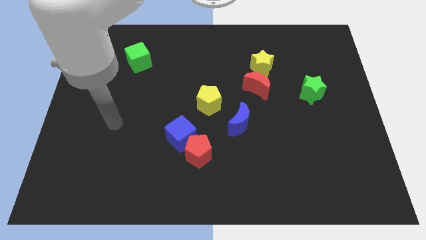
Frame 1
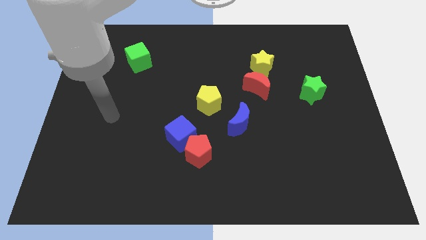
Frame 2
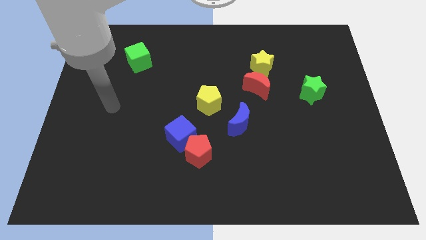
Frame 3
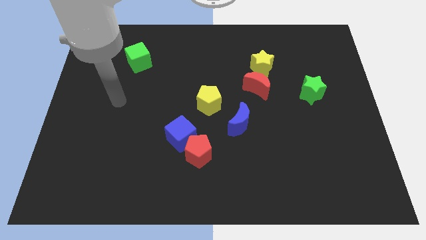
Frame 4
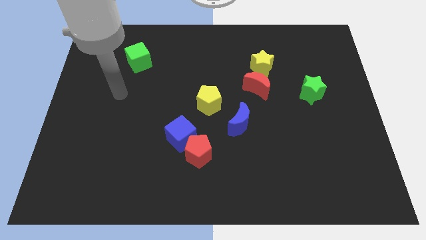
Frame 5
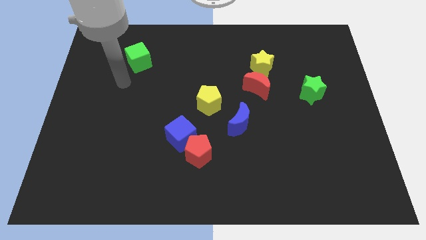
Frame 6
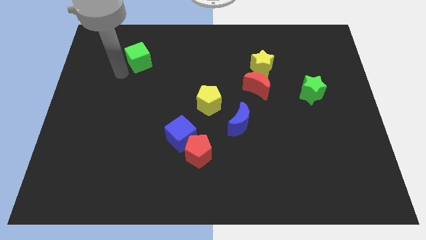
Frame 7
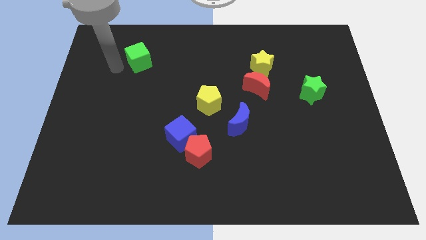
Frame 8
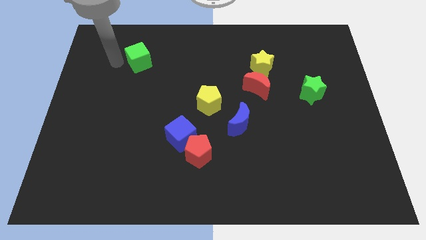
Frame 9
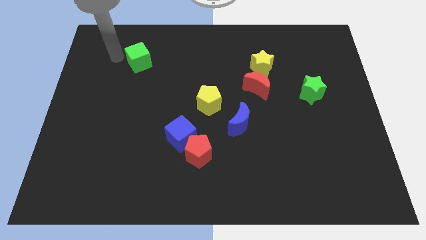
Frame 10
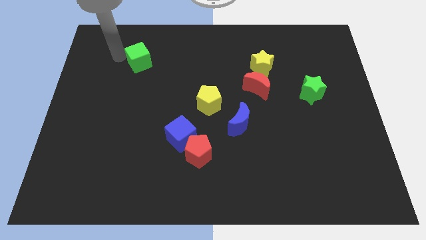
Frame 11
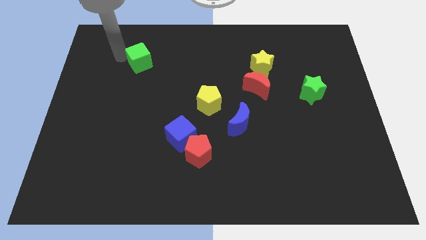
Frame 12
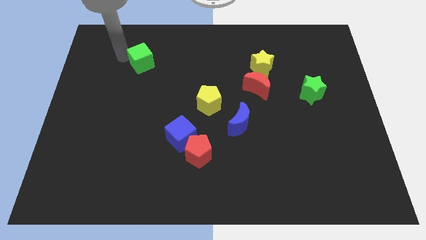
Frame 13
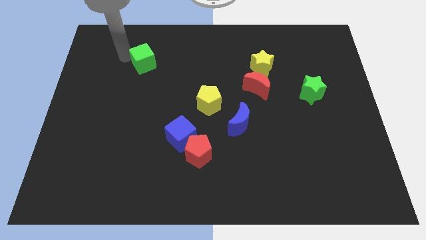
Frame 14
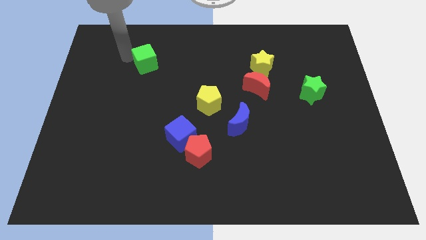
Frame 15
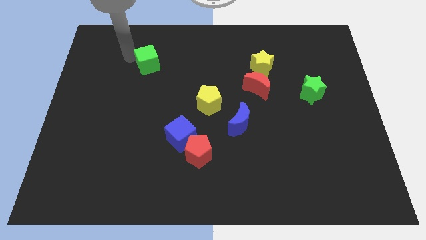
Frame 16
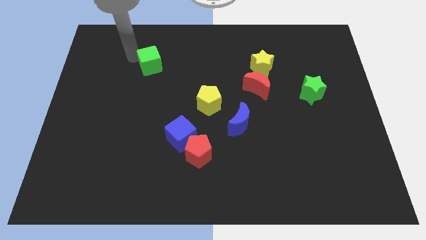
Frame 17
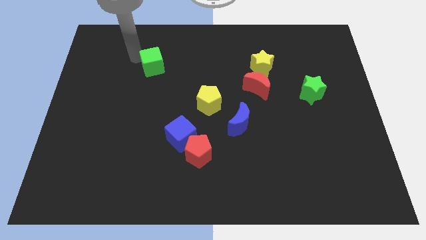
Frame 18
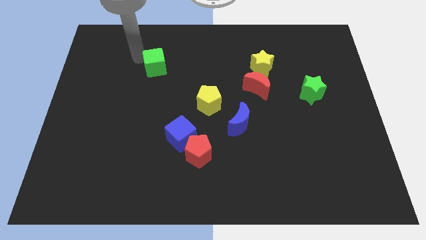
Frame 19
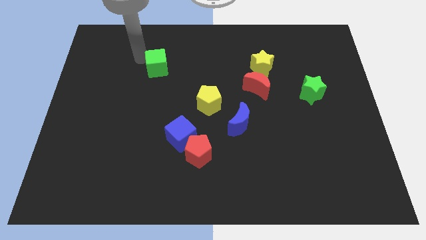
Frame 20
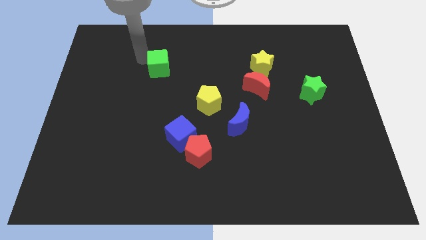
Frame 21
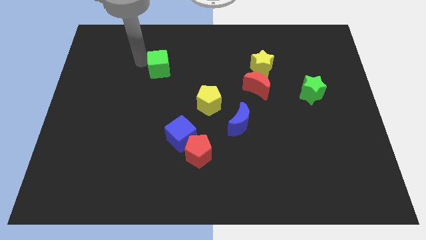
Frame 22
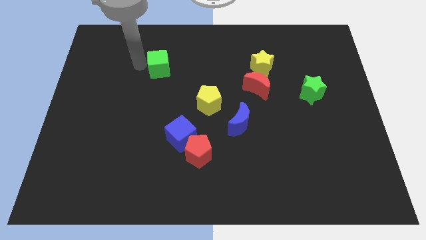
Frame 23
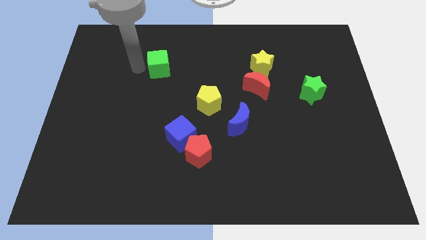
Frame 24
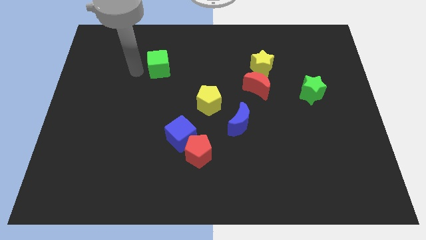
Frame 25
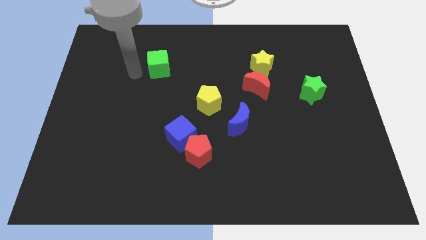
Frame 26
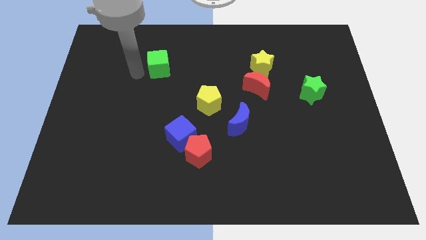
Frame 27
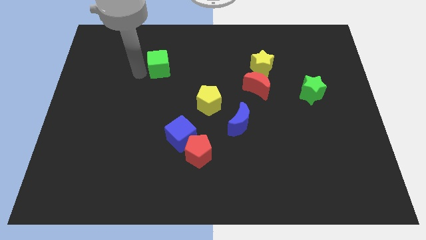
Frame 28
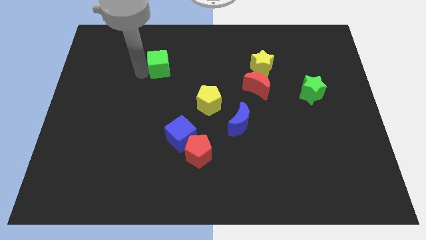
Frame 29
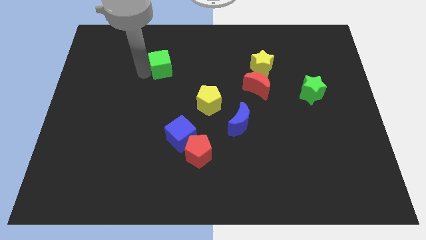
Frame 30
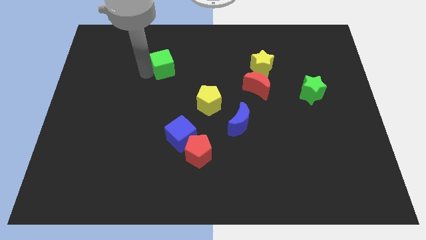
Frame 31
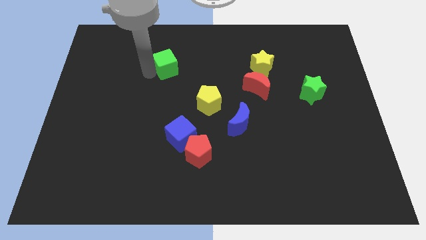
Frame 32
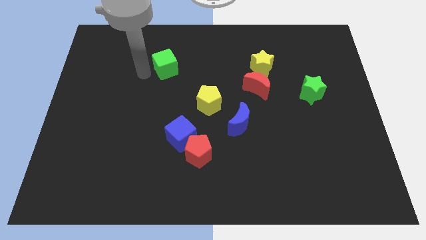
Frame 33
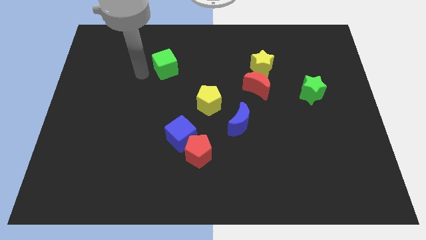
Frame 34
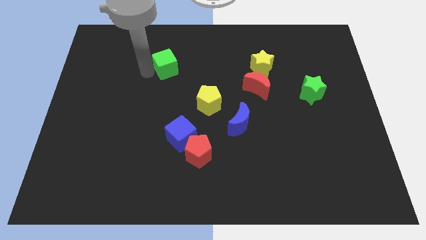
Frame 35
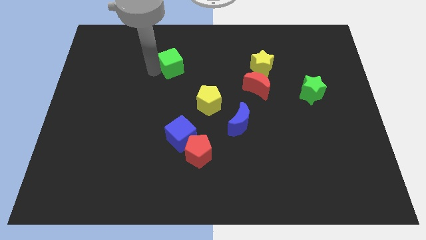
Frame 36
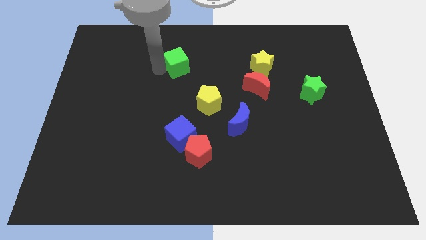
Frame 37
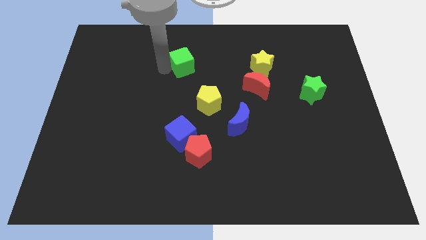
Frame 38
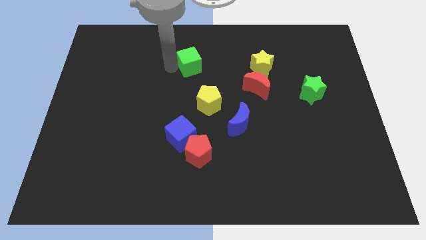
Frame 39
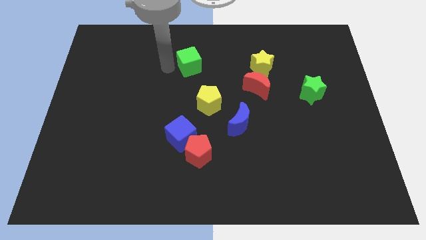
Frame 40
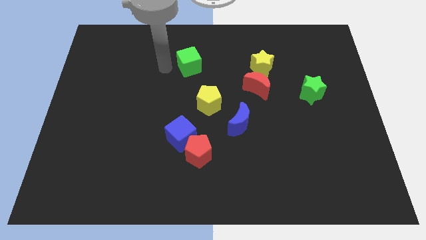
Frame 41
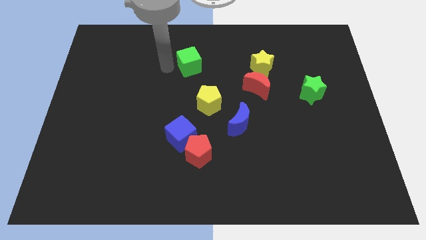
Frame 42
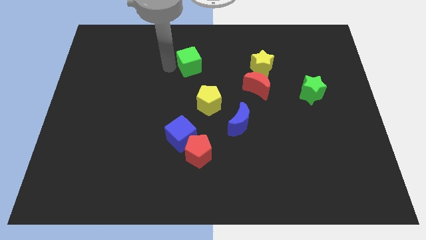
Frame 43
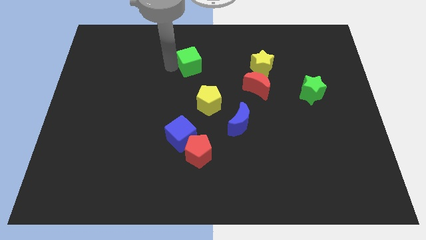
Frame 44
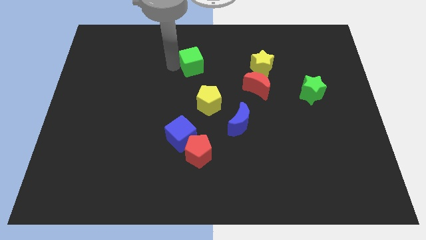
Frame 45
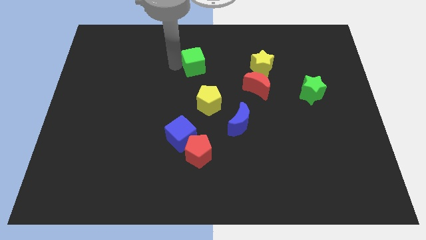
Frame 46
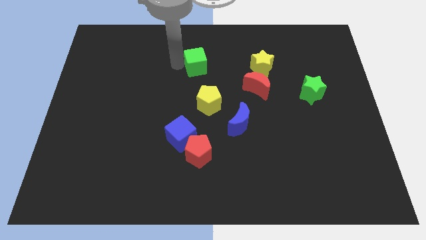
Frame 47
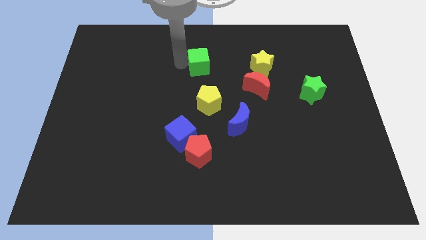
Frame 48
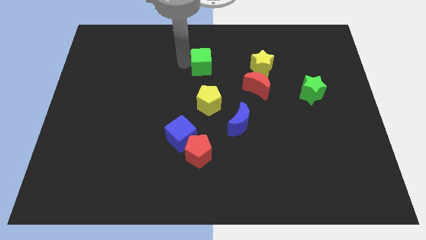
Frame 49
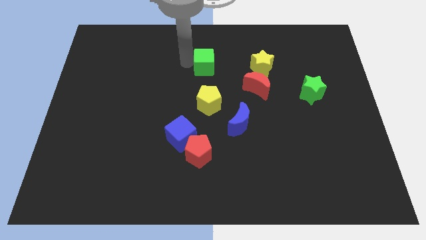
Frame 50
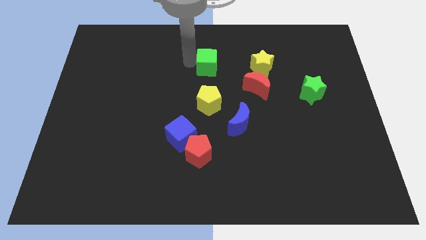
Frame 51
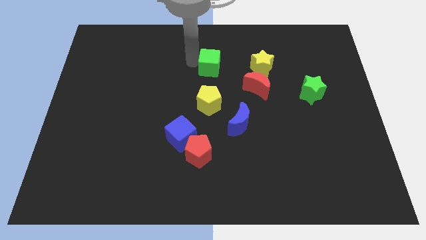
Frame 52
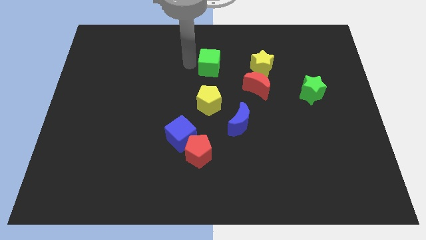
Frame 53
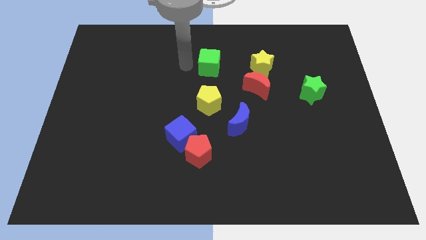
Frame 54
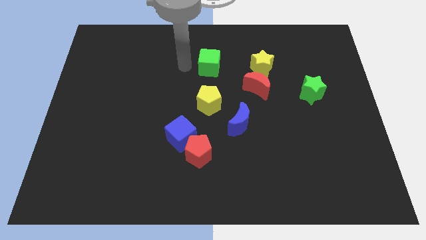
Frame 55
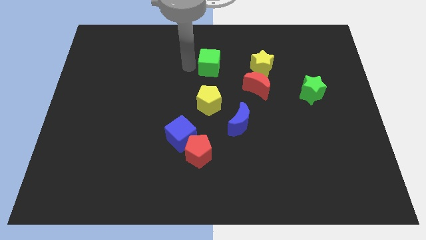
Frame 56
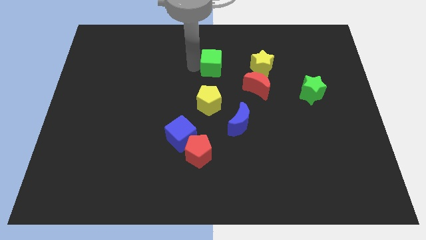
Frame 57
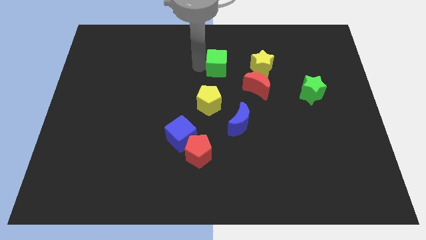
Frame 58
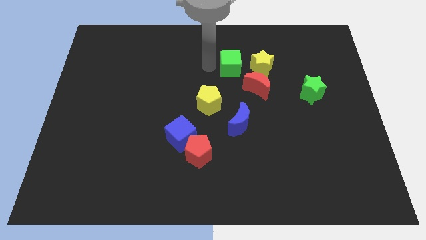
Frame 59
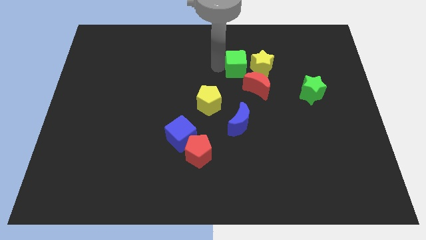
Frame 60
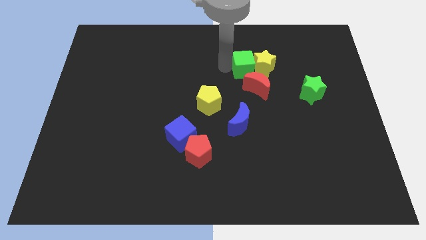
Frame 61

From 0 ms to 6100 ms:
put the green cube next to the yellow star

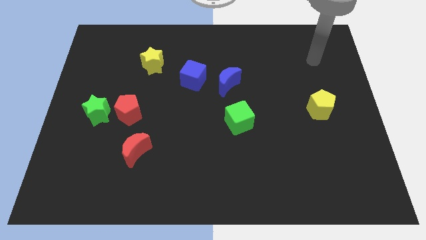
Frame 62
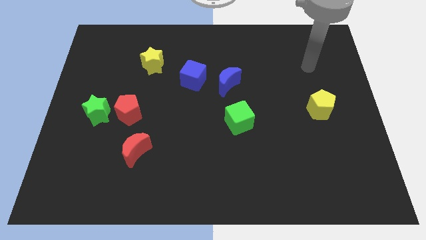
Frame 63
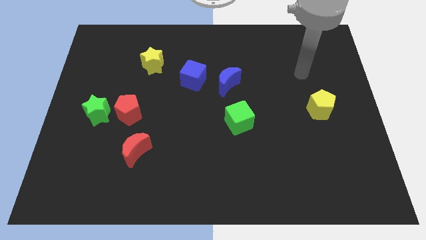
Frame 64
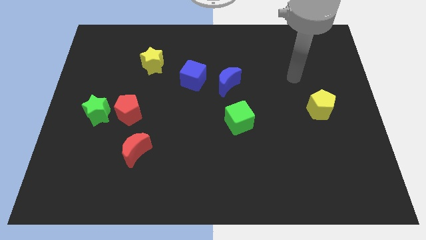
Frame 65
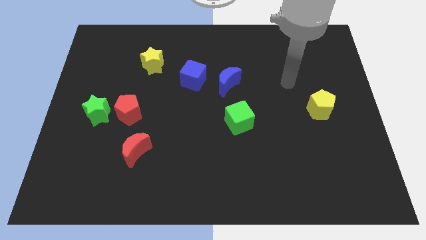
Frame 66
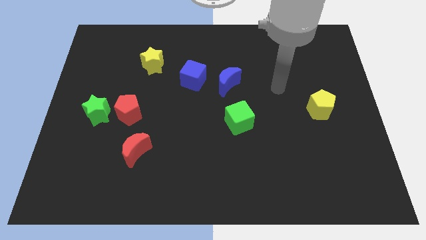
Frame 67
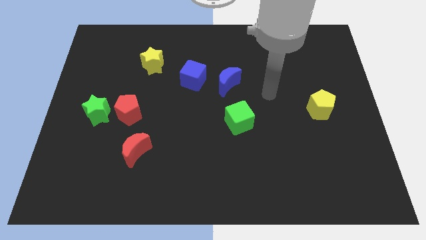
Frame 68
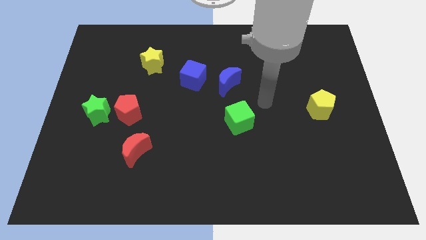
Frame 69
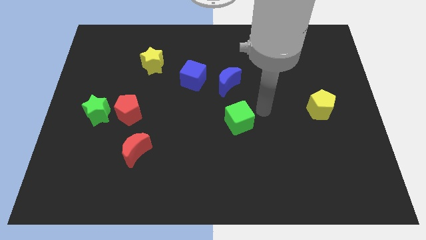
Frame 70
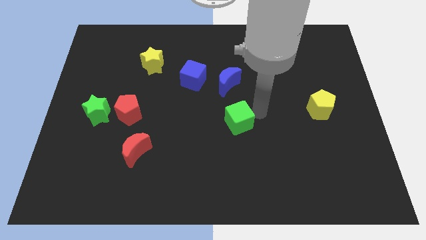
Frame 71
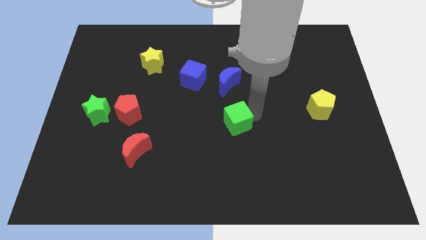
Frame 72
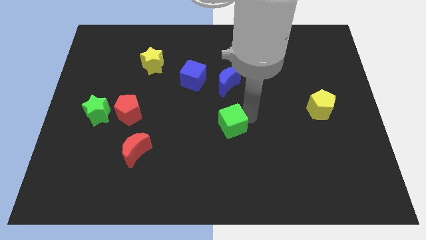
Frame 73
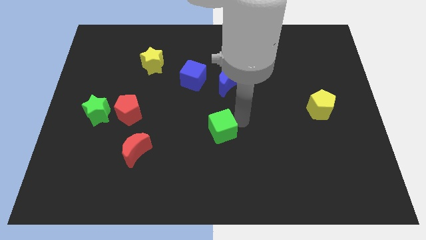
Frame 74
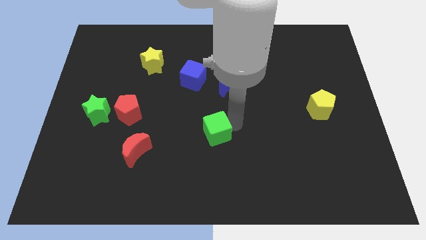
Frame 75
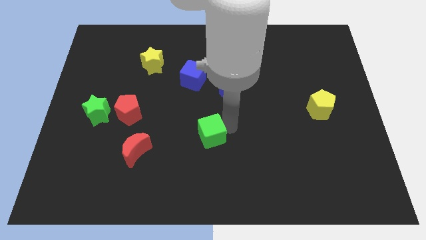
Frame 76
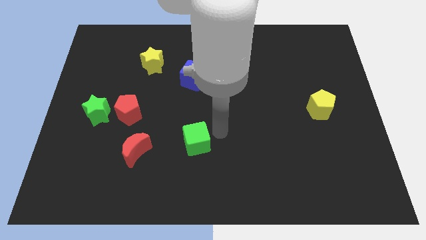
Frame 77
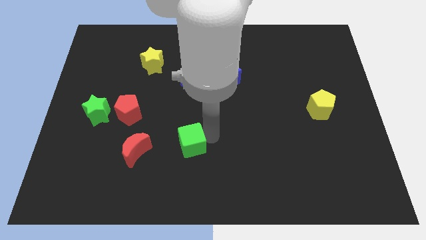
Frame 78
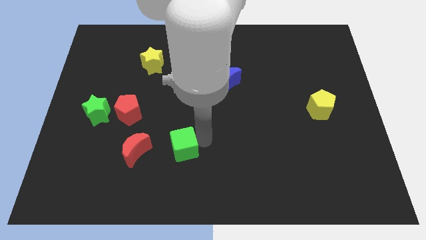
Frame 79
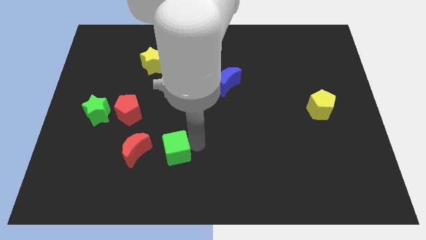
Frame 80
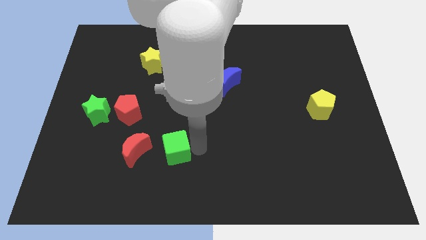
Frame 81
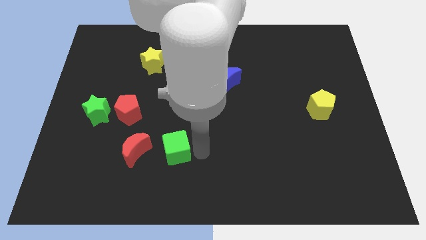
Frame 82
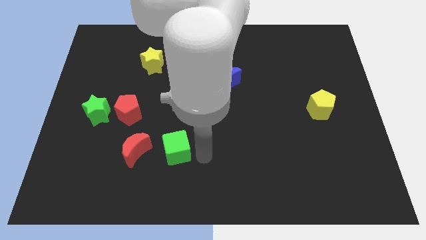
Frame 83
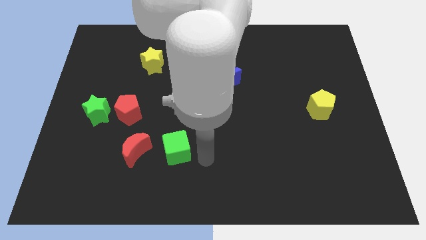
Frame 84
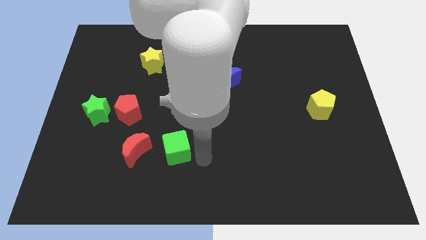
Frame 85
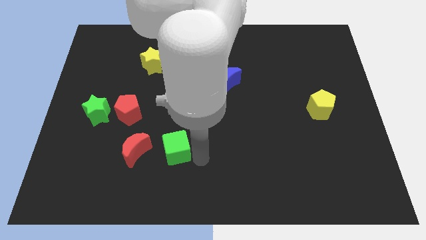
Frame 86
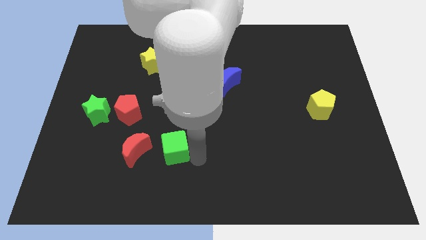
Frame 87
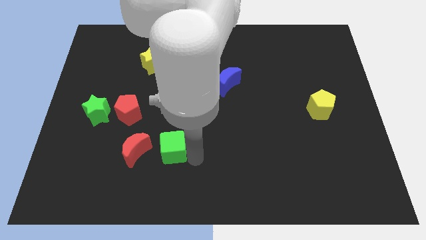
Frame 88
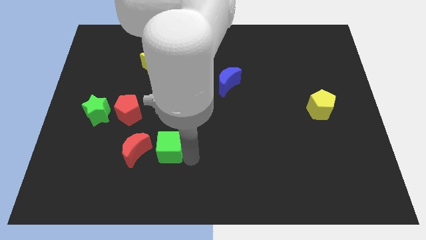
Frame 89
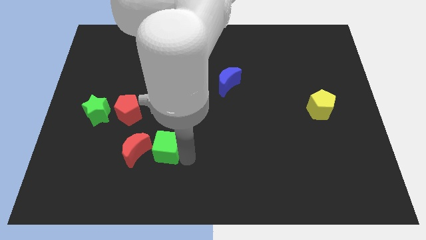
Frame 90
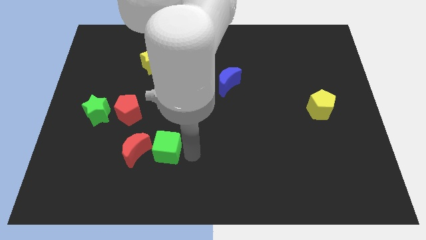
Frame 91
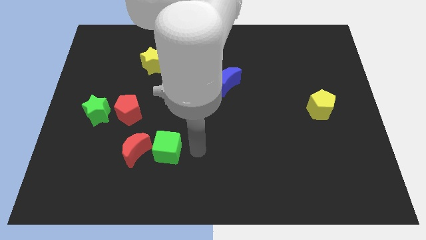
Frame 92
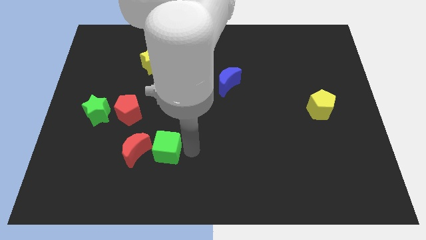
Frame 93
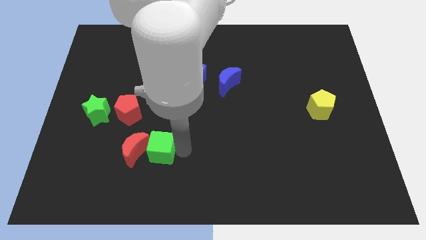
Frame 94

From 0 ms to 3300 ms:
put the green cube to the red moon
